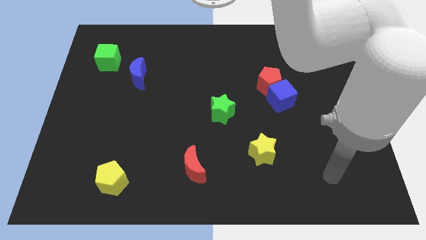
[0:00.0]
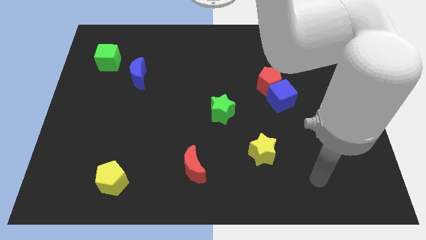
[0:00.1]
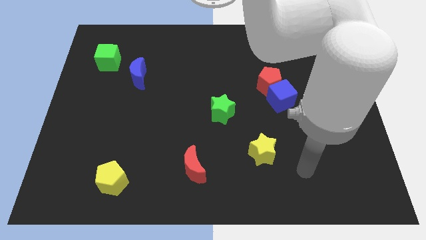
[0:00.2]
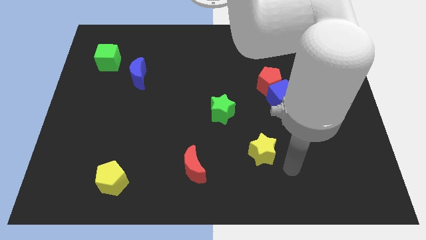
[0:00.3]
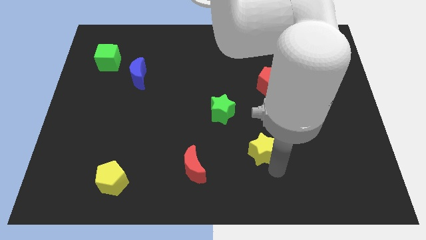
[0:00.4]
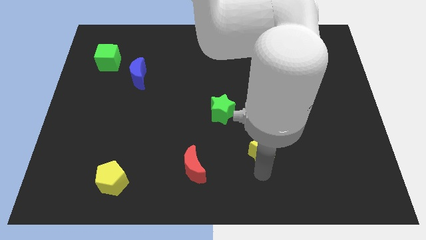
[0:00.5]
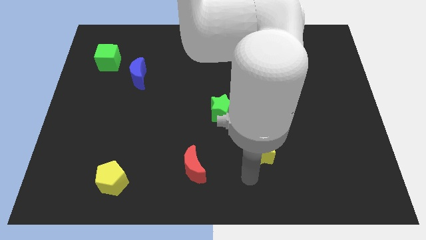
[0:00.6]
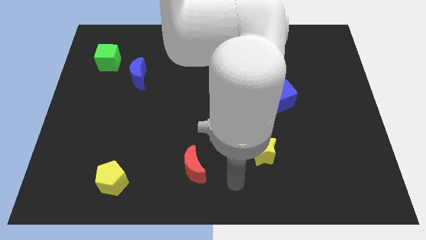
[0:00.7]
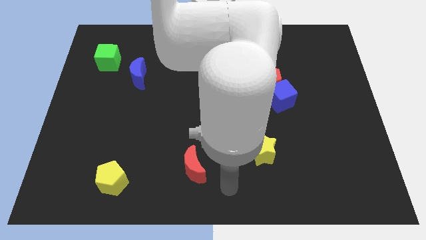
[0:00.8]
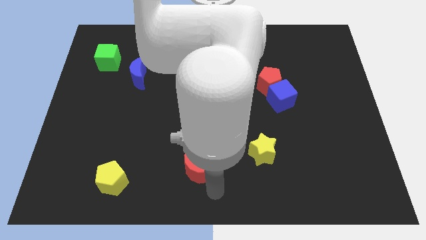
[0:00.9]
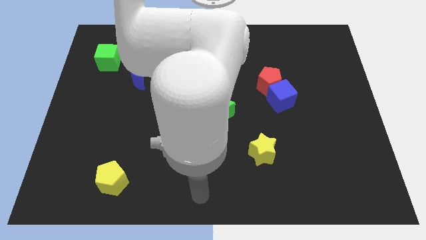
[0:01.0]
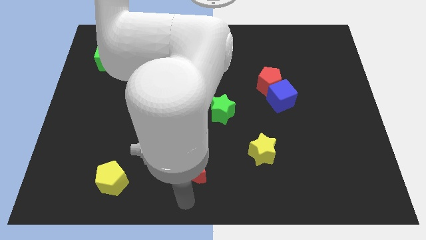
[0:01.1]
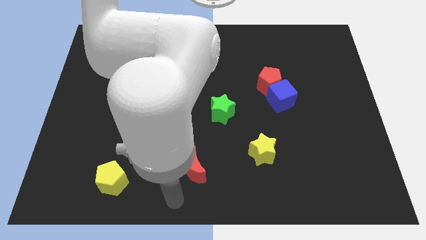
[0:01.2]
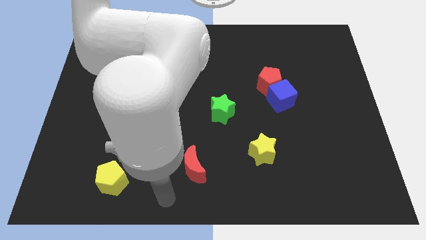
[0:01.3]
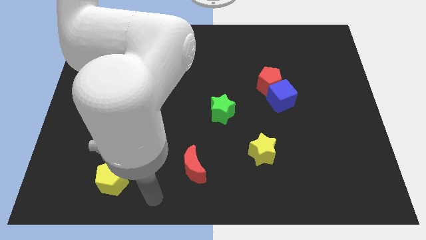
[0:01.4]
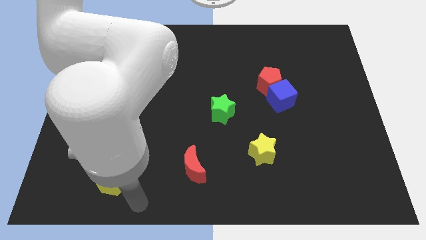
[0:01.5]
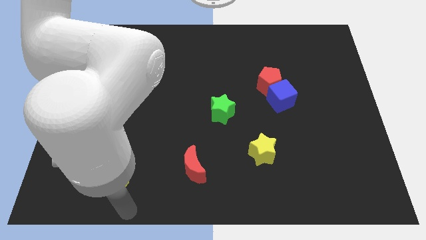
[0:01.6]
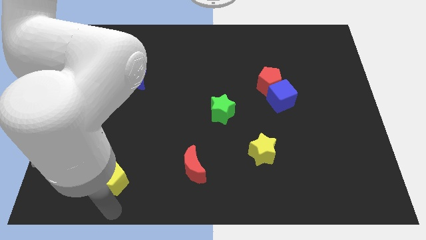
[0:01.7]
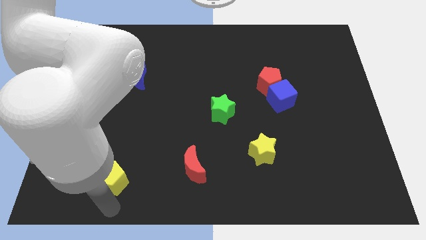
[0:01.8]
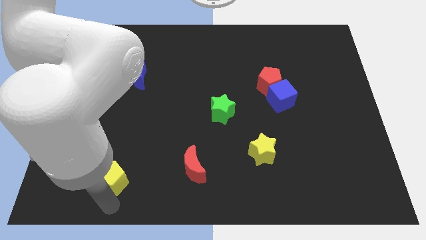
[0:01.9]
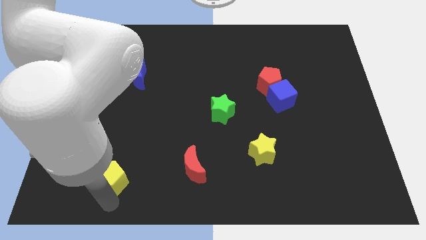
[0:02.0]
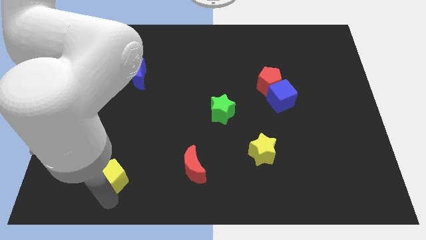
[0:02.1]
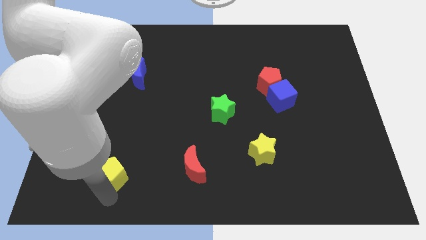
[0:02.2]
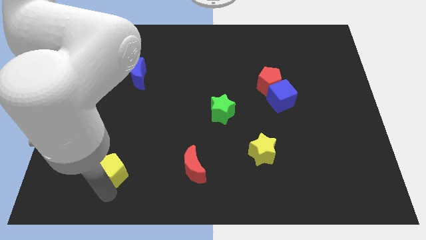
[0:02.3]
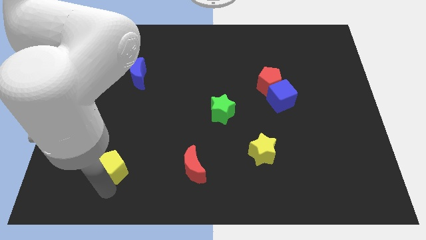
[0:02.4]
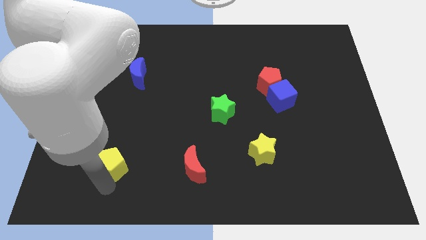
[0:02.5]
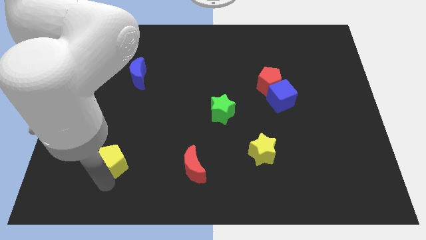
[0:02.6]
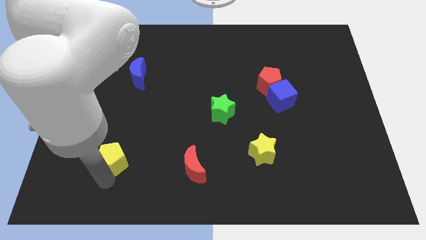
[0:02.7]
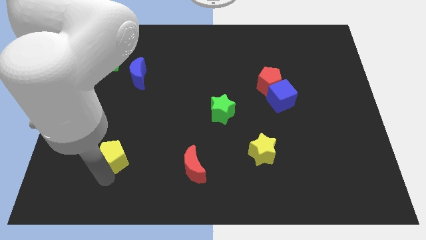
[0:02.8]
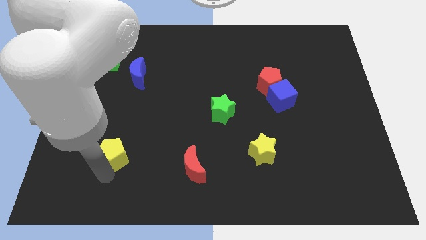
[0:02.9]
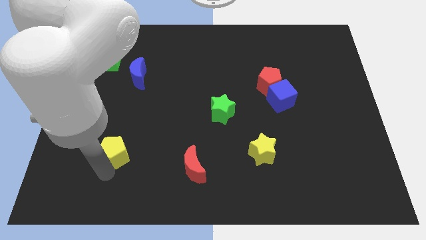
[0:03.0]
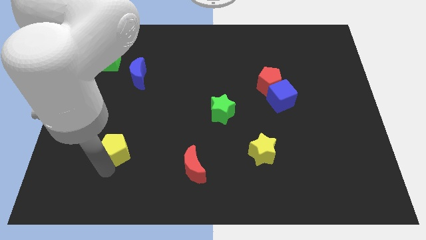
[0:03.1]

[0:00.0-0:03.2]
push the yellow pentagon up somewhat

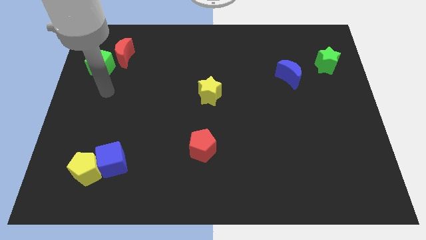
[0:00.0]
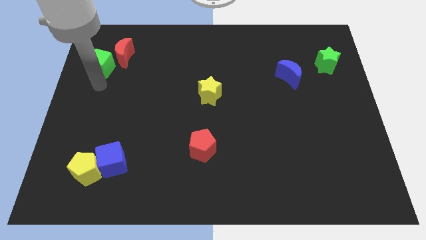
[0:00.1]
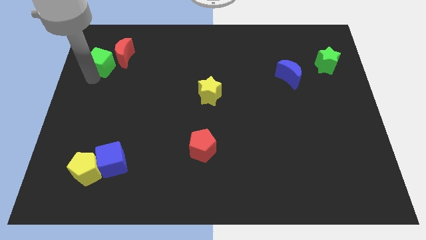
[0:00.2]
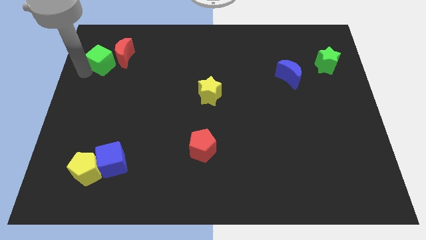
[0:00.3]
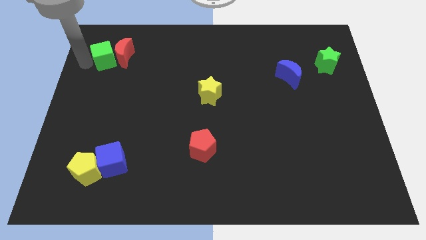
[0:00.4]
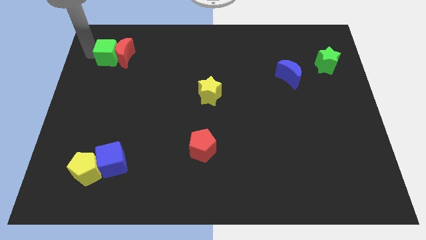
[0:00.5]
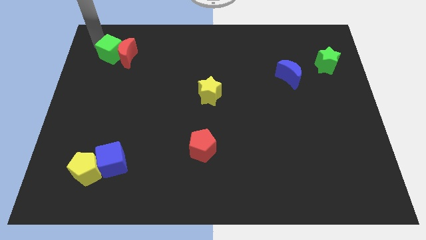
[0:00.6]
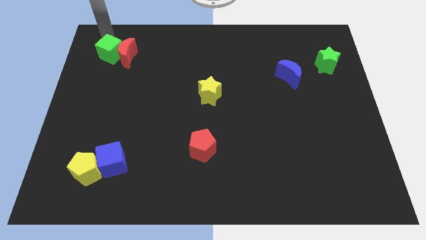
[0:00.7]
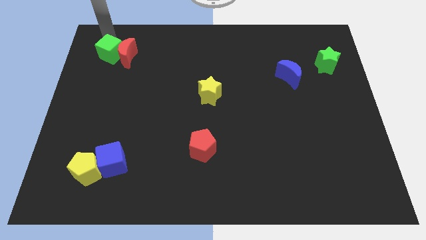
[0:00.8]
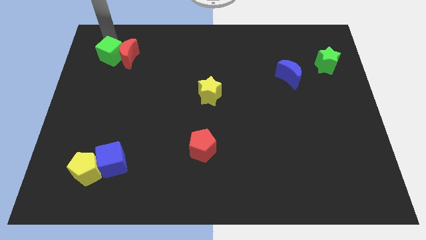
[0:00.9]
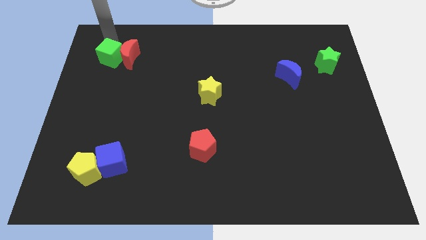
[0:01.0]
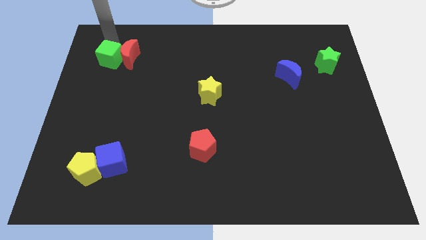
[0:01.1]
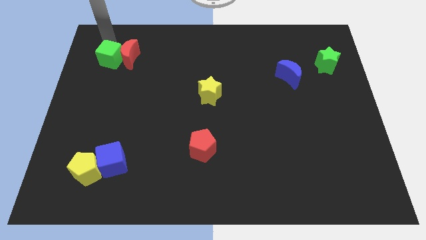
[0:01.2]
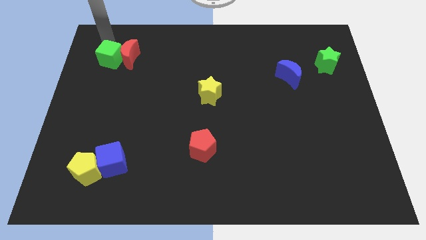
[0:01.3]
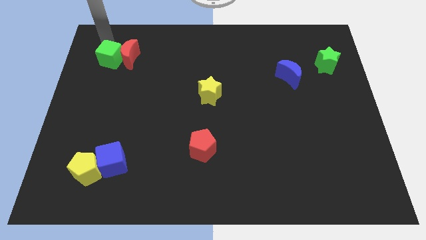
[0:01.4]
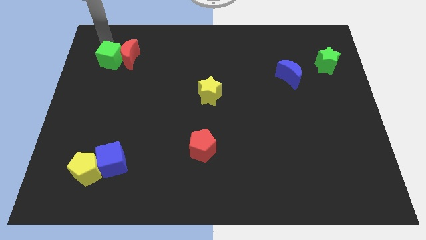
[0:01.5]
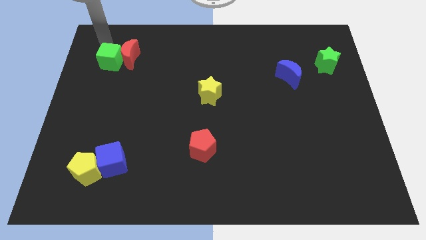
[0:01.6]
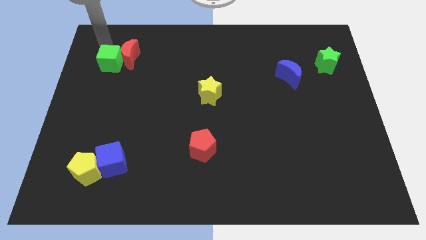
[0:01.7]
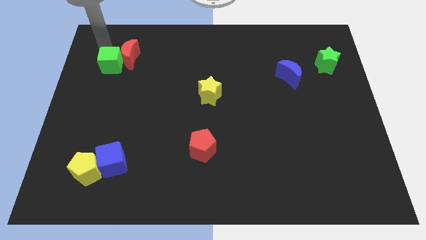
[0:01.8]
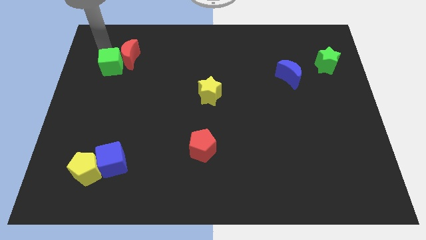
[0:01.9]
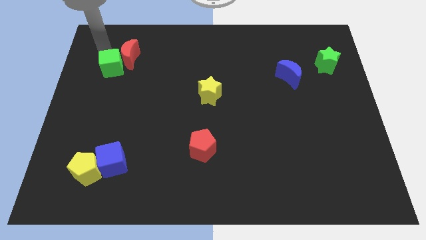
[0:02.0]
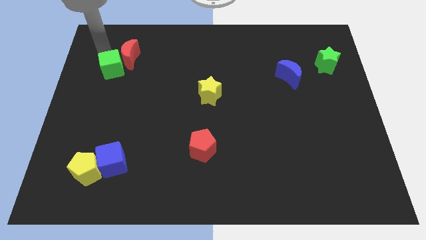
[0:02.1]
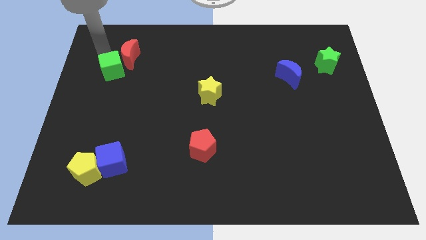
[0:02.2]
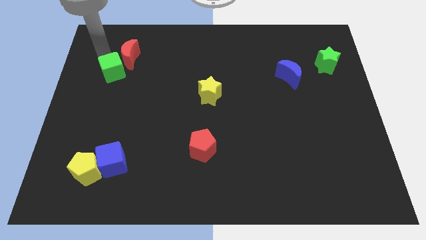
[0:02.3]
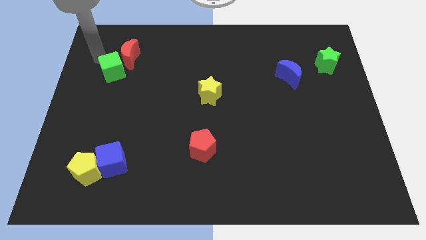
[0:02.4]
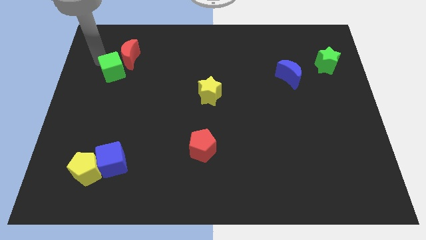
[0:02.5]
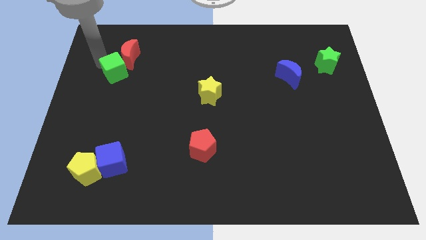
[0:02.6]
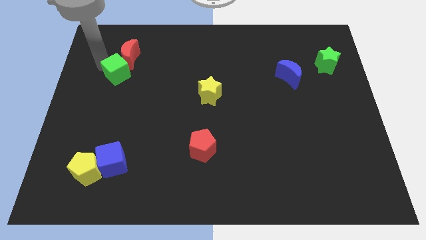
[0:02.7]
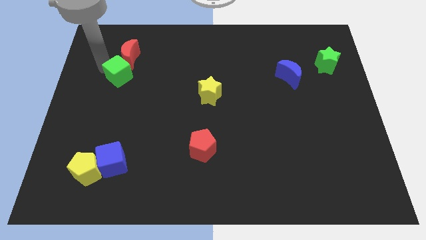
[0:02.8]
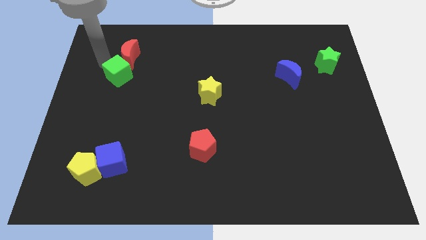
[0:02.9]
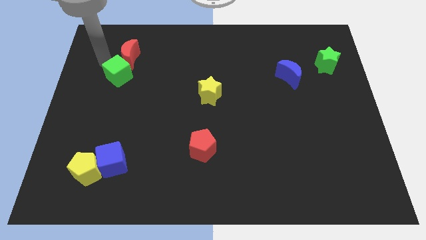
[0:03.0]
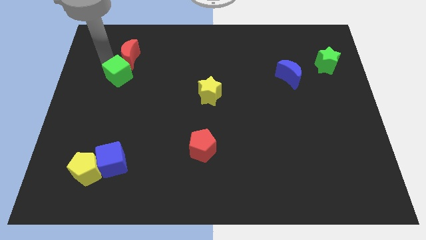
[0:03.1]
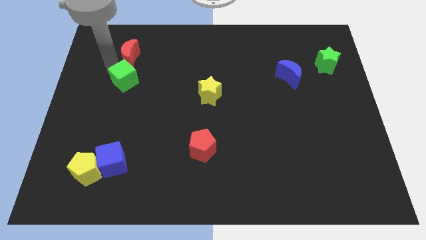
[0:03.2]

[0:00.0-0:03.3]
slide the green cube diagonally down and right slightly

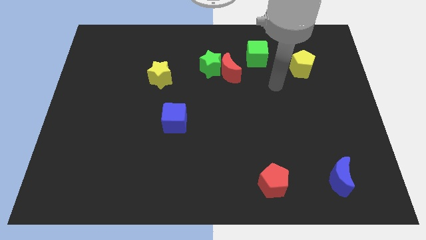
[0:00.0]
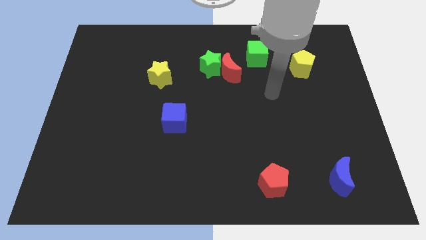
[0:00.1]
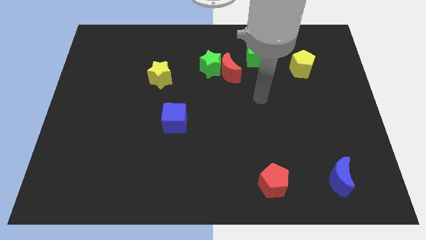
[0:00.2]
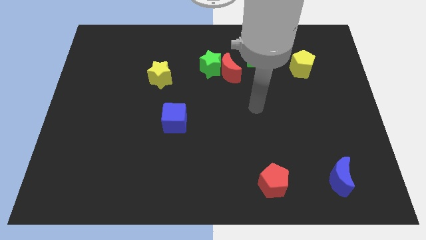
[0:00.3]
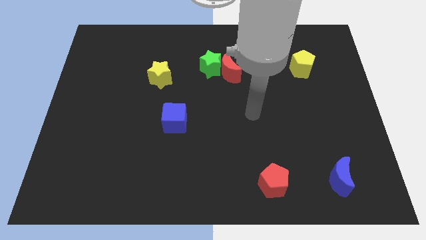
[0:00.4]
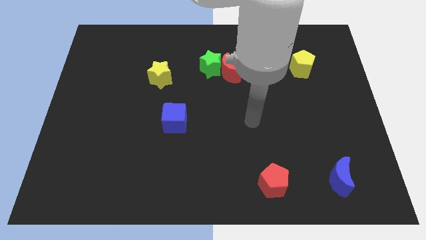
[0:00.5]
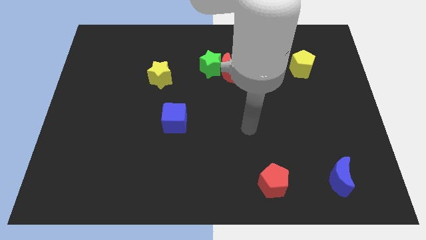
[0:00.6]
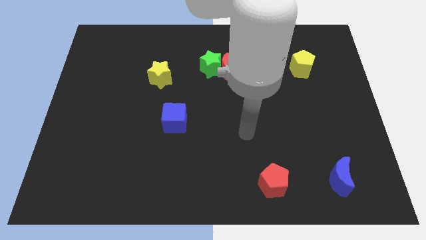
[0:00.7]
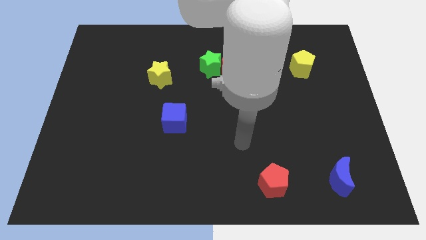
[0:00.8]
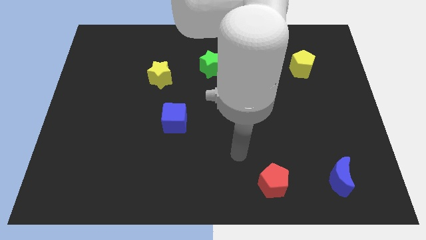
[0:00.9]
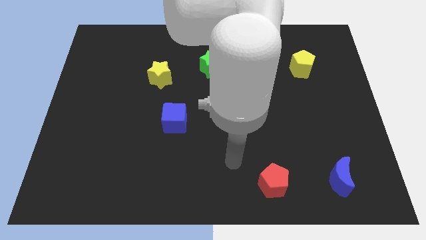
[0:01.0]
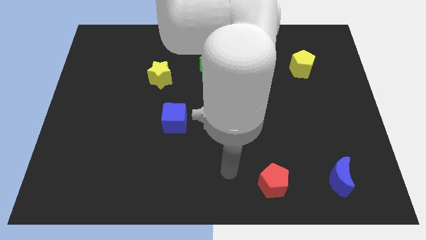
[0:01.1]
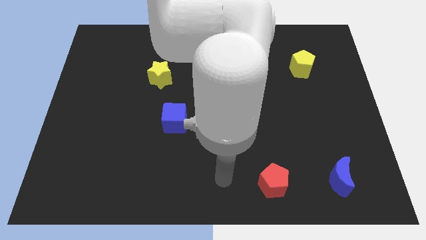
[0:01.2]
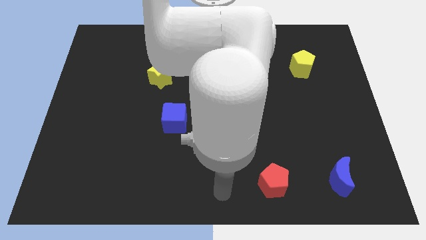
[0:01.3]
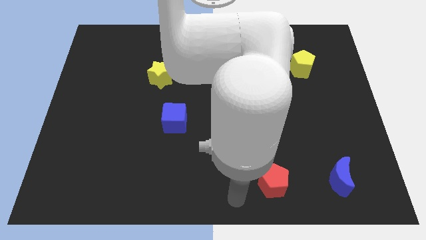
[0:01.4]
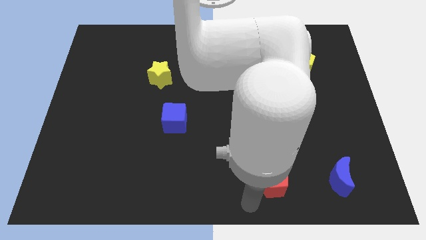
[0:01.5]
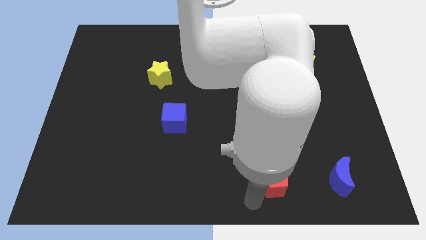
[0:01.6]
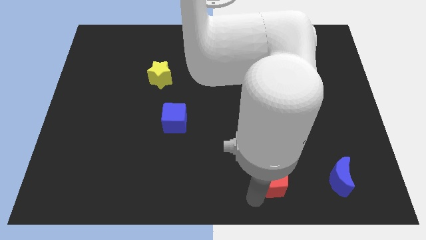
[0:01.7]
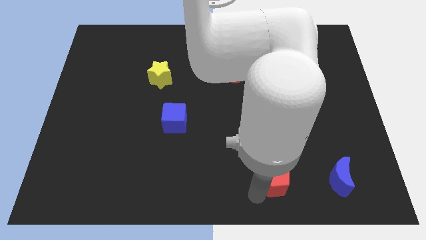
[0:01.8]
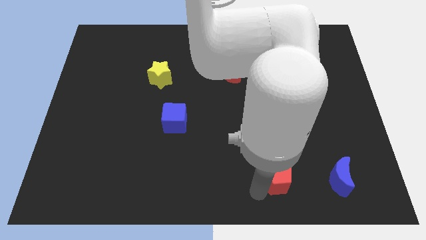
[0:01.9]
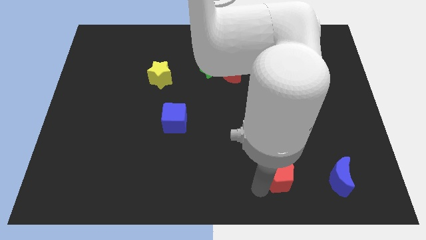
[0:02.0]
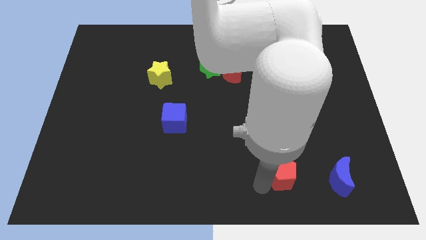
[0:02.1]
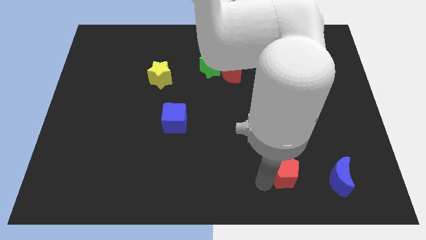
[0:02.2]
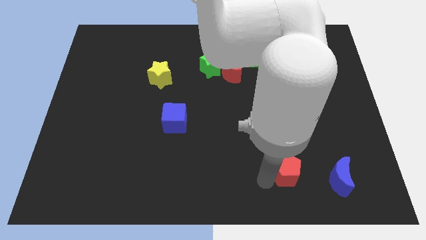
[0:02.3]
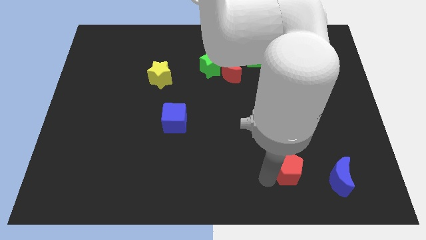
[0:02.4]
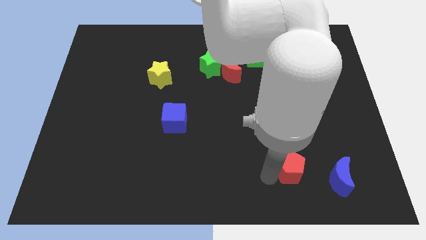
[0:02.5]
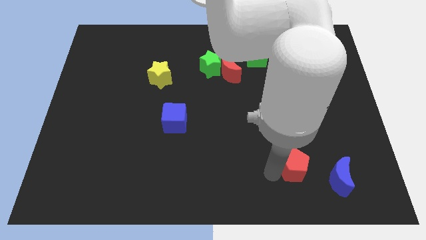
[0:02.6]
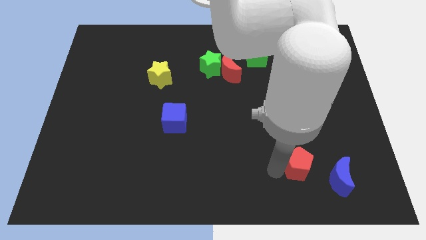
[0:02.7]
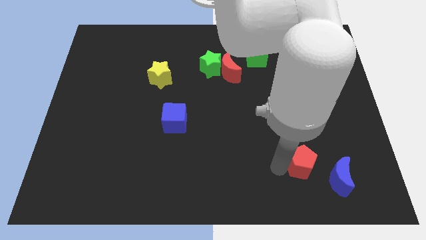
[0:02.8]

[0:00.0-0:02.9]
slide the red pentagon diagonally upwards and to the right slightly
